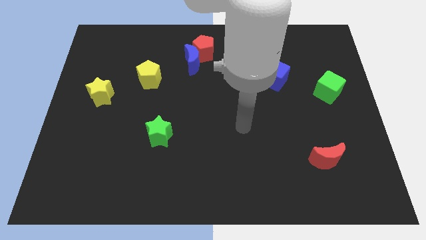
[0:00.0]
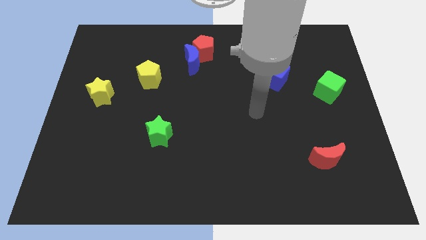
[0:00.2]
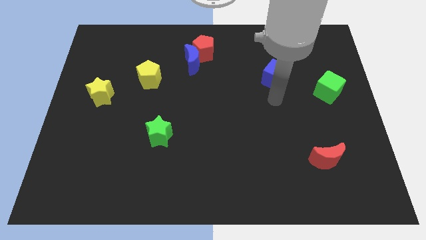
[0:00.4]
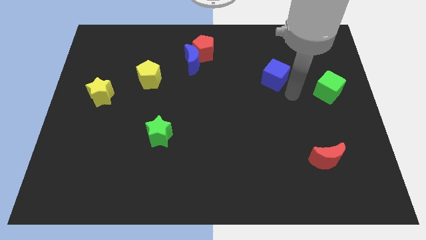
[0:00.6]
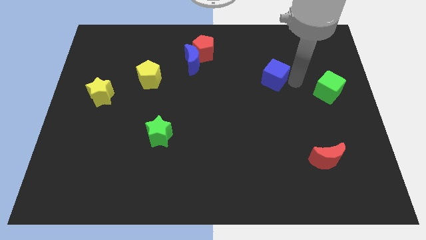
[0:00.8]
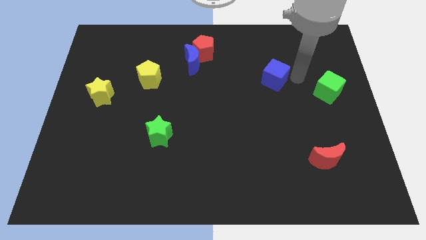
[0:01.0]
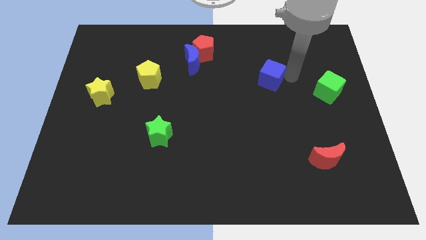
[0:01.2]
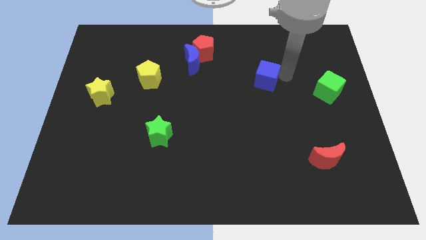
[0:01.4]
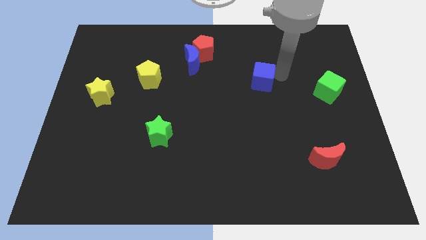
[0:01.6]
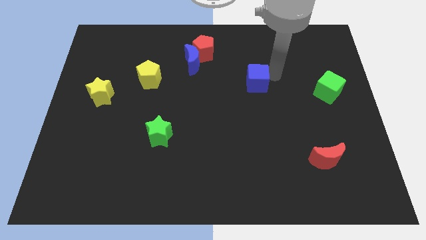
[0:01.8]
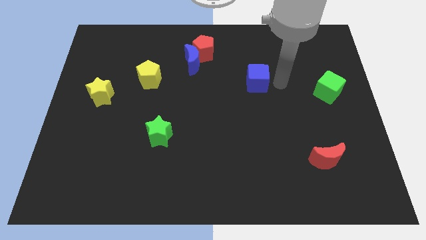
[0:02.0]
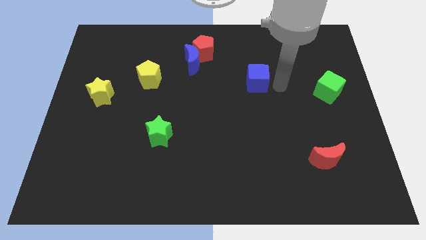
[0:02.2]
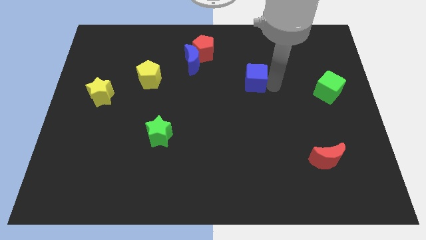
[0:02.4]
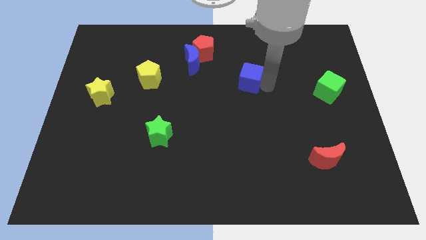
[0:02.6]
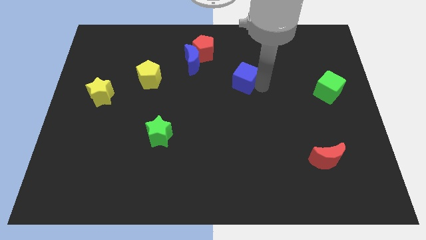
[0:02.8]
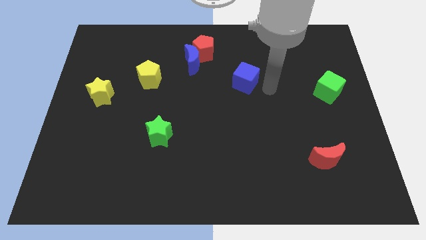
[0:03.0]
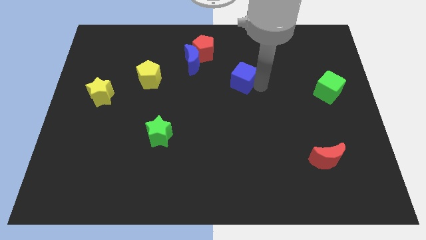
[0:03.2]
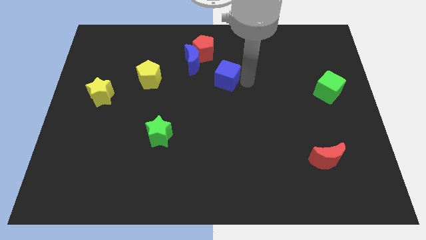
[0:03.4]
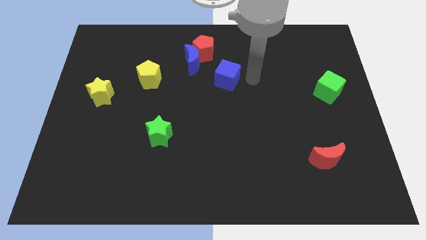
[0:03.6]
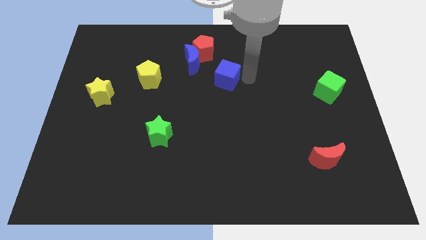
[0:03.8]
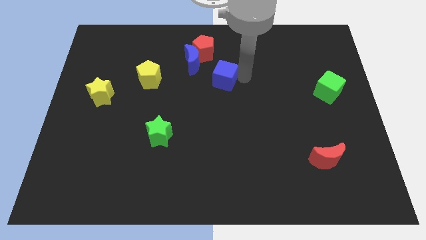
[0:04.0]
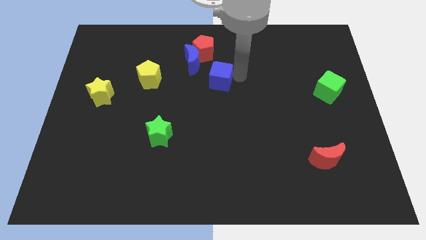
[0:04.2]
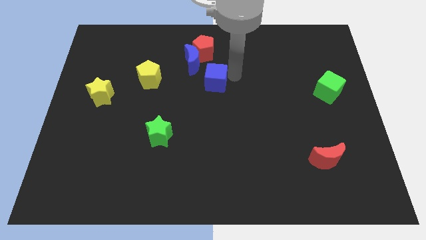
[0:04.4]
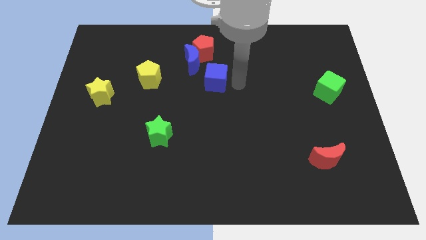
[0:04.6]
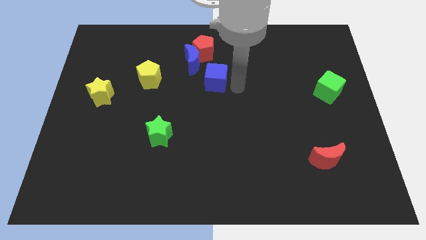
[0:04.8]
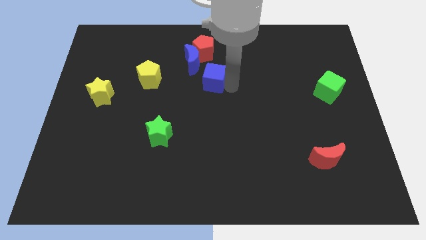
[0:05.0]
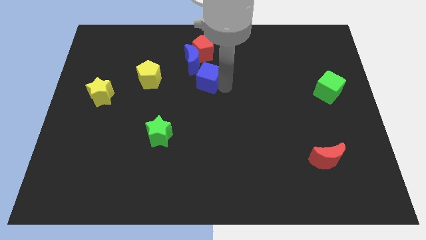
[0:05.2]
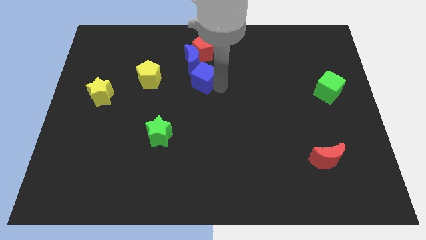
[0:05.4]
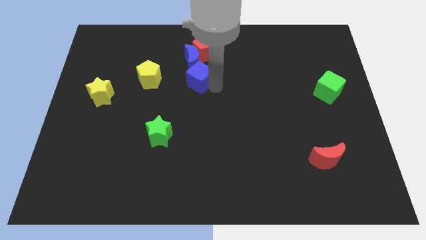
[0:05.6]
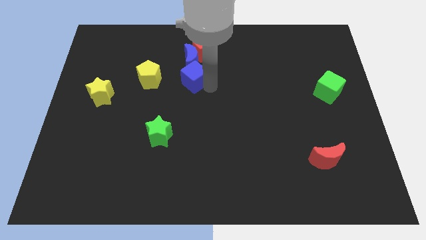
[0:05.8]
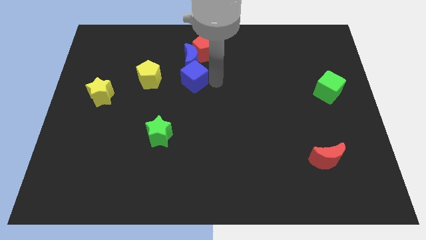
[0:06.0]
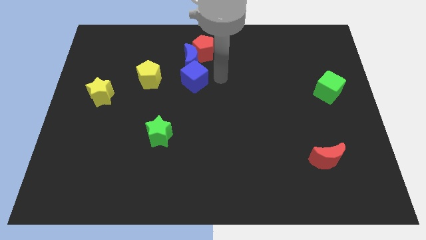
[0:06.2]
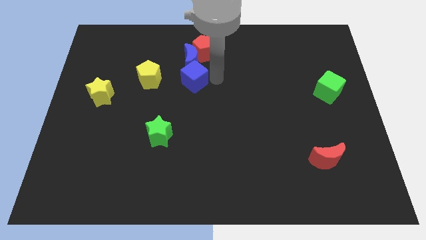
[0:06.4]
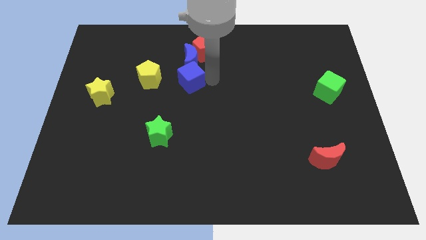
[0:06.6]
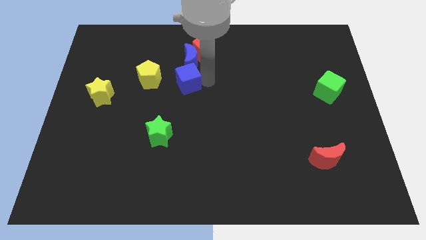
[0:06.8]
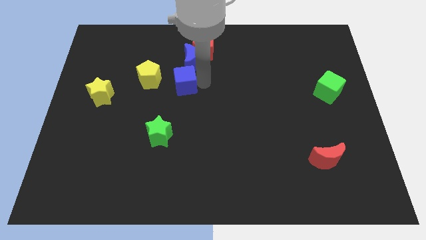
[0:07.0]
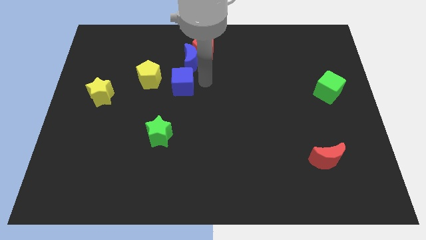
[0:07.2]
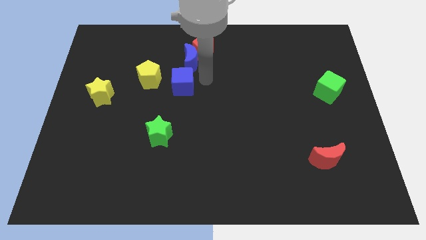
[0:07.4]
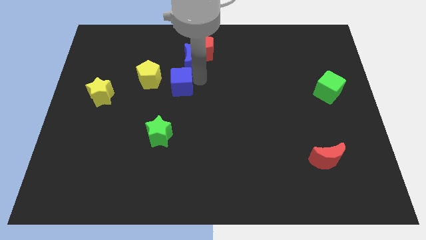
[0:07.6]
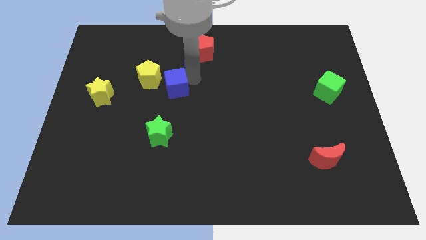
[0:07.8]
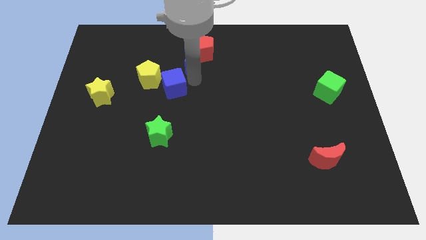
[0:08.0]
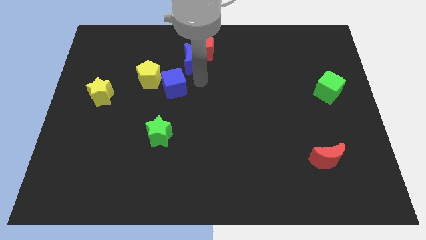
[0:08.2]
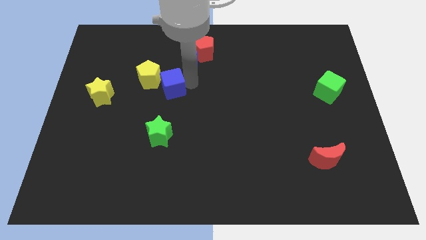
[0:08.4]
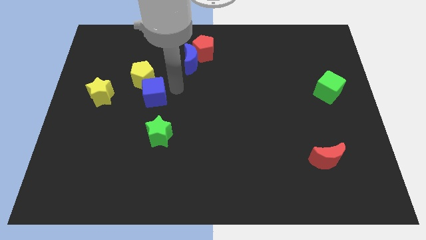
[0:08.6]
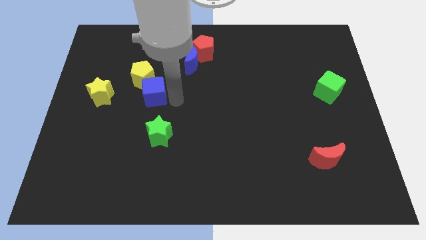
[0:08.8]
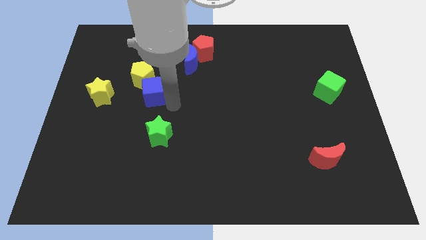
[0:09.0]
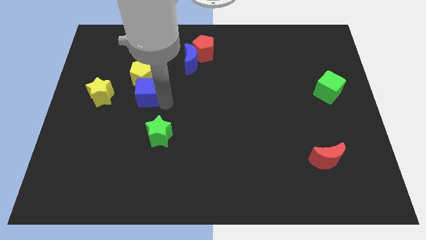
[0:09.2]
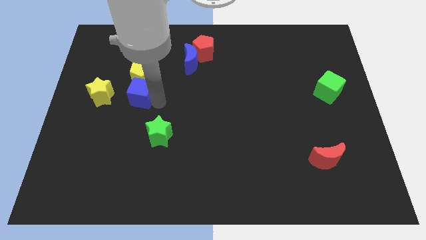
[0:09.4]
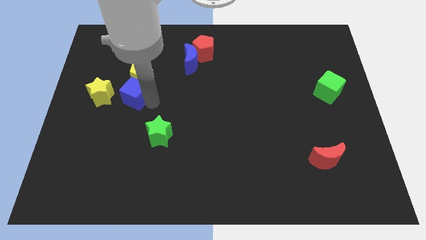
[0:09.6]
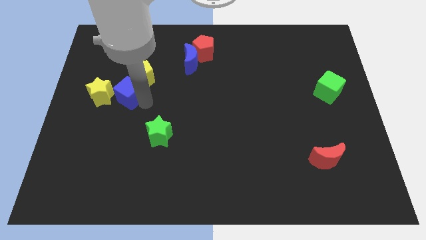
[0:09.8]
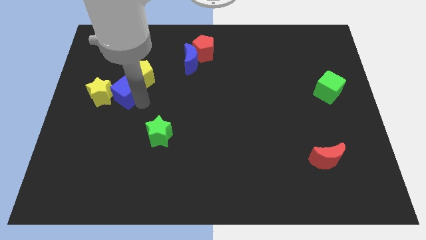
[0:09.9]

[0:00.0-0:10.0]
slide the blue cube to the top right side of the yellow star

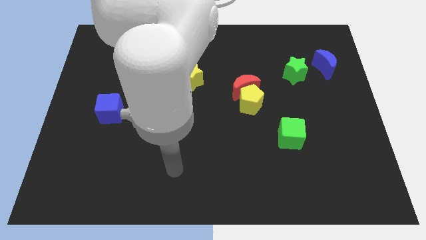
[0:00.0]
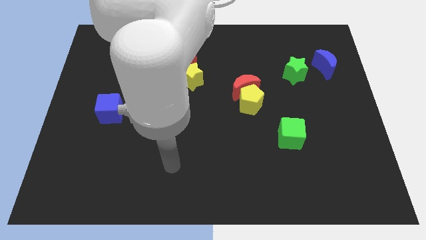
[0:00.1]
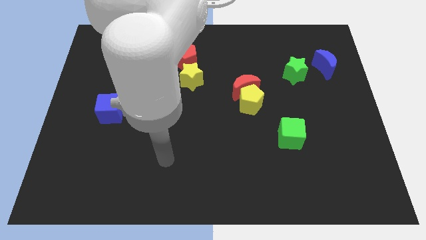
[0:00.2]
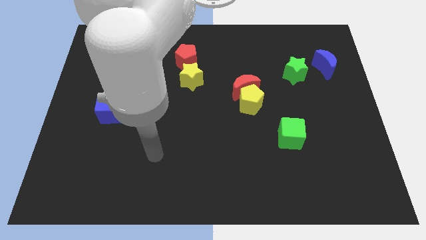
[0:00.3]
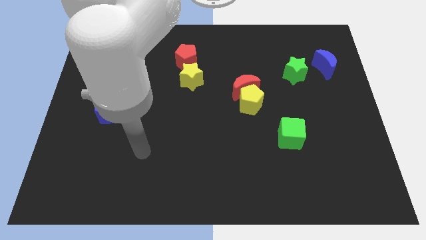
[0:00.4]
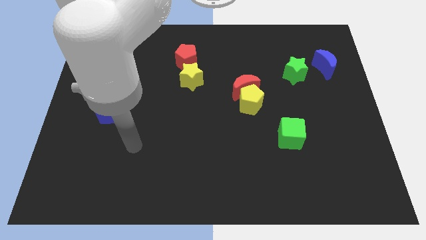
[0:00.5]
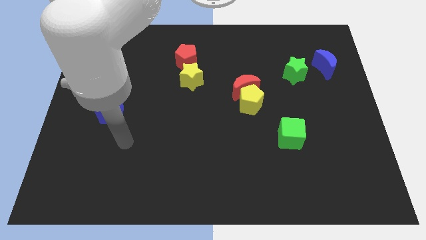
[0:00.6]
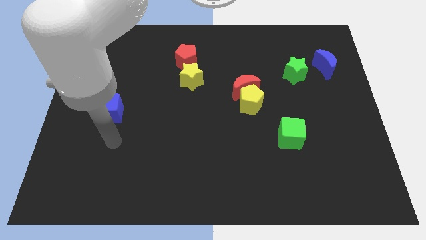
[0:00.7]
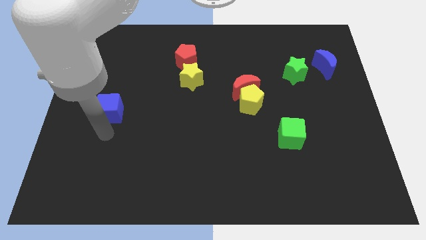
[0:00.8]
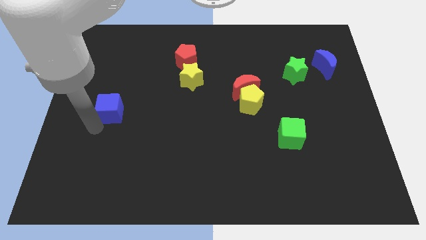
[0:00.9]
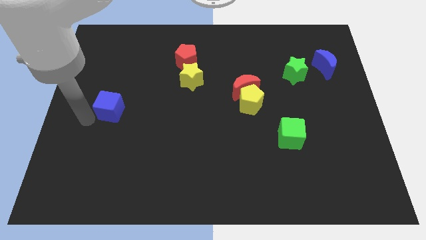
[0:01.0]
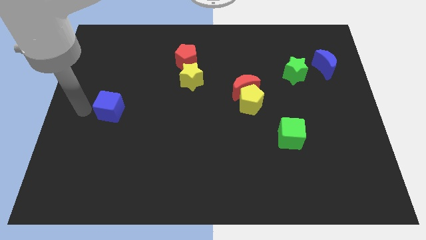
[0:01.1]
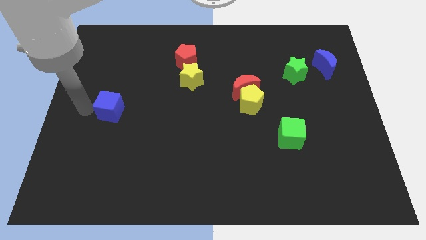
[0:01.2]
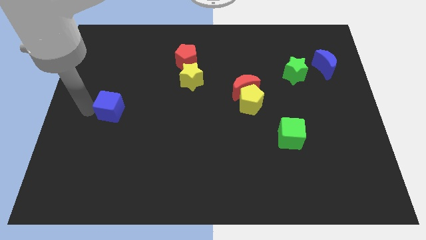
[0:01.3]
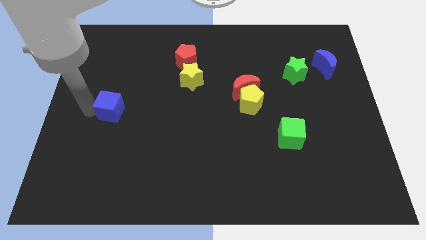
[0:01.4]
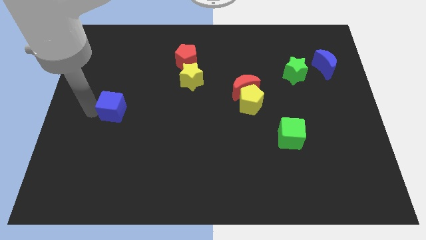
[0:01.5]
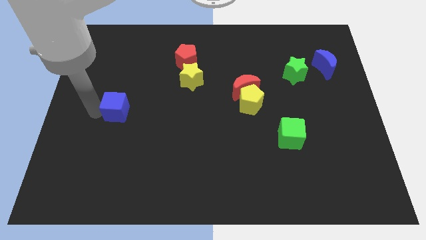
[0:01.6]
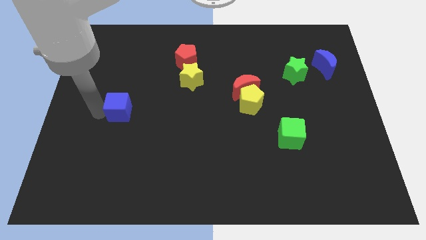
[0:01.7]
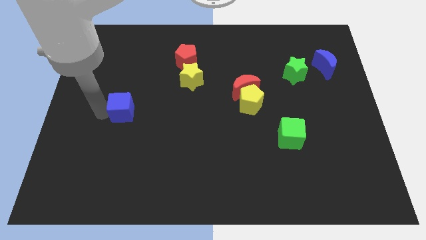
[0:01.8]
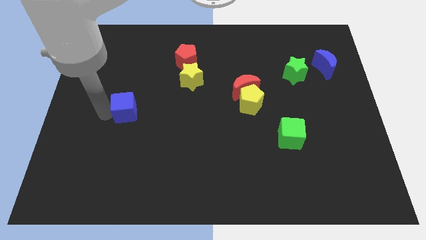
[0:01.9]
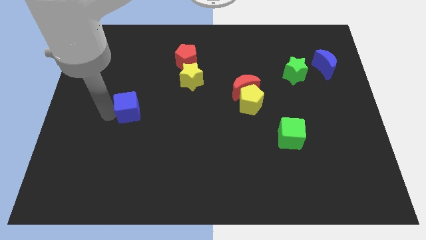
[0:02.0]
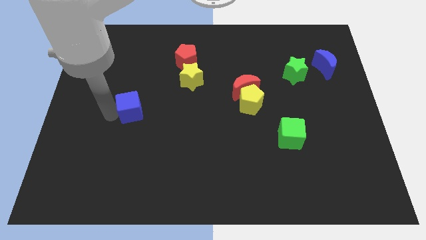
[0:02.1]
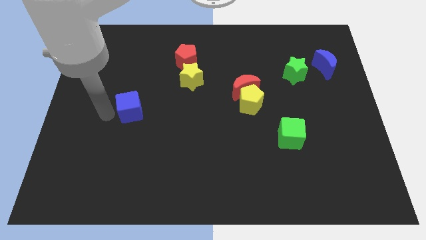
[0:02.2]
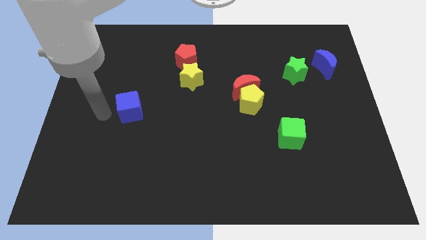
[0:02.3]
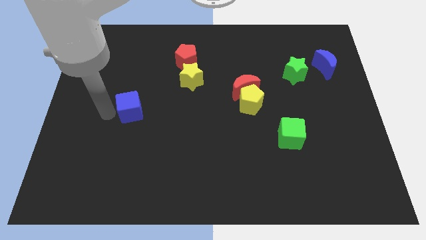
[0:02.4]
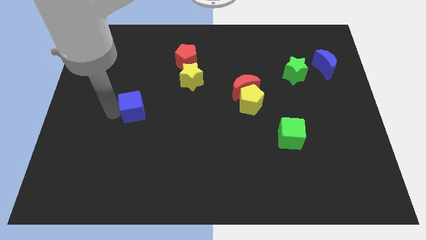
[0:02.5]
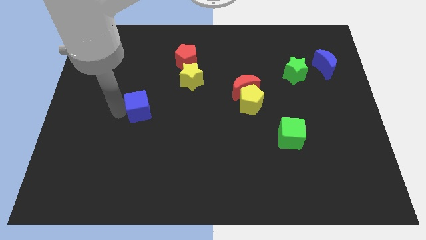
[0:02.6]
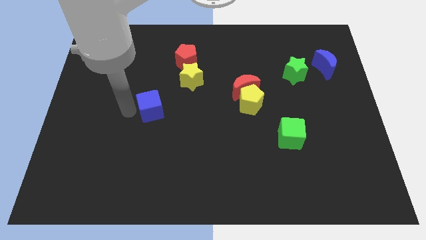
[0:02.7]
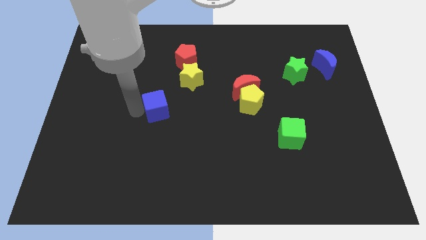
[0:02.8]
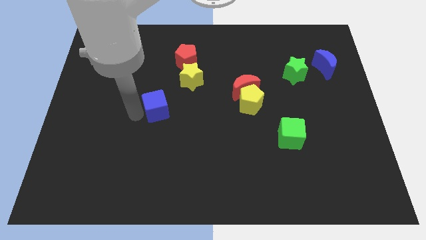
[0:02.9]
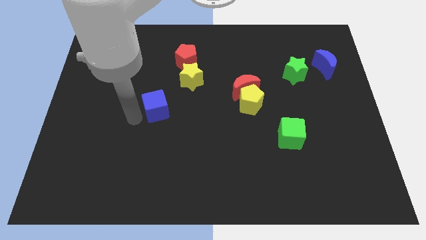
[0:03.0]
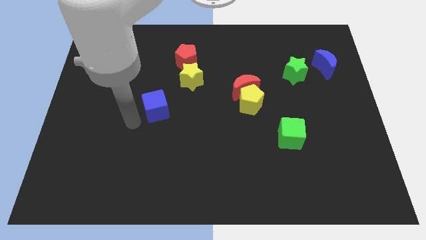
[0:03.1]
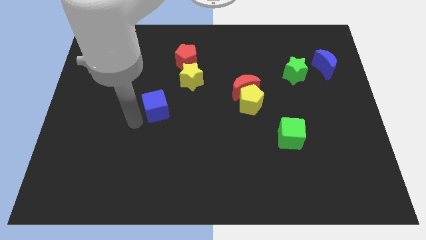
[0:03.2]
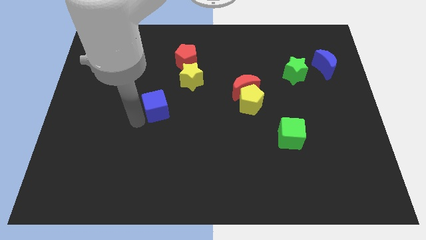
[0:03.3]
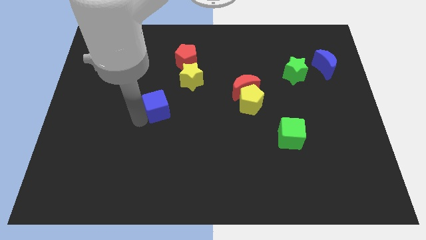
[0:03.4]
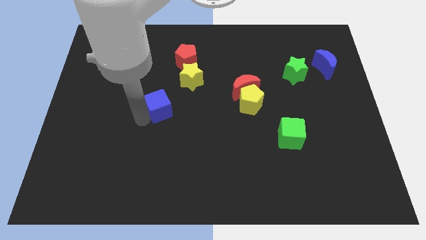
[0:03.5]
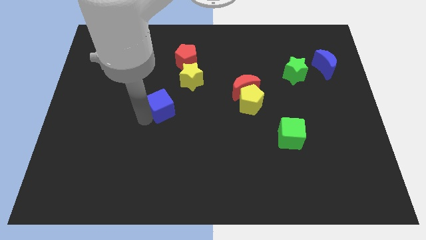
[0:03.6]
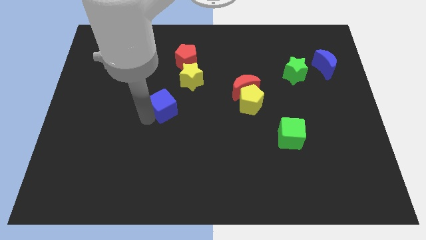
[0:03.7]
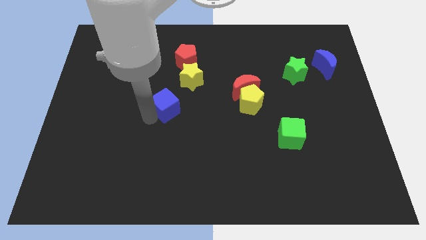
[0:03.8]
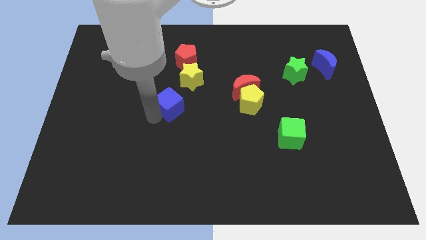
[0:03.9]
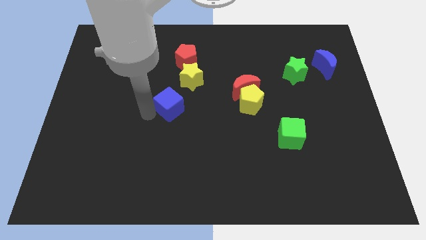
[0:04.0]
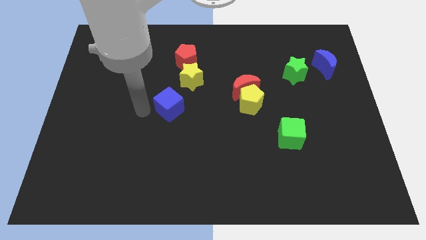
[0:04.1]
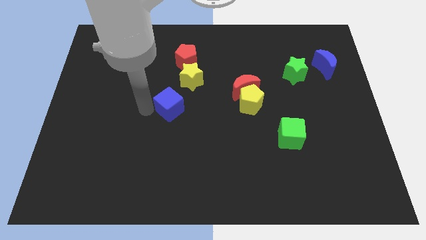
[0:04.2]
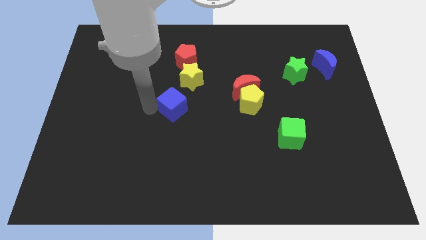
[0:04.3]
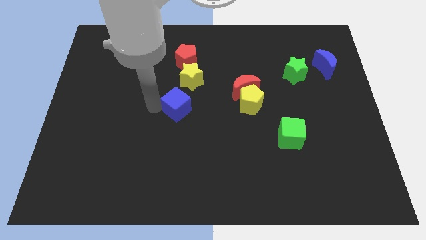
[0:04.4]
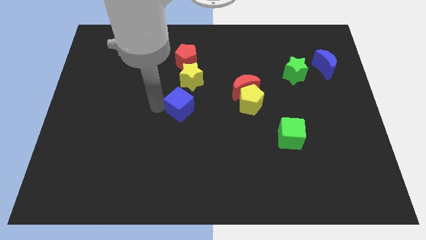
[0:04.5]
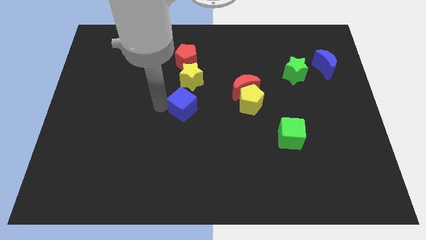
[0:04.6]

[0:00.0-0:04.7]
put the blue cube to the left side of the yellow pentagon
